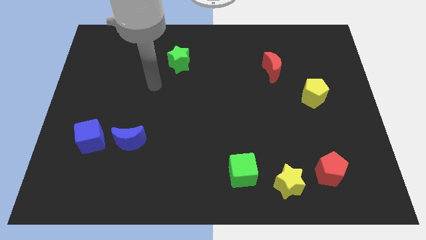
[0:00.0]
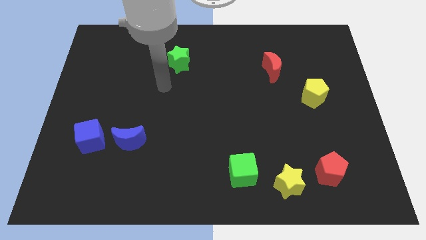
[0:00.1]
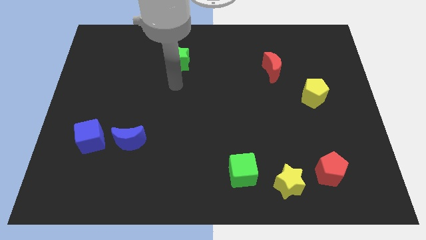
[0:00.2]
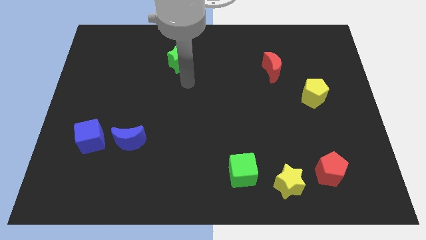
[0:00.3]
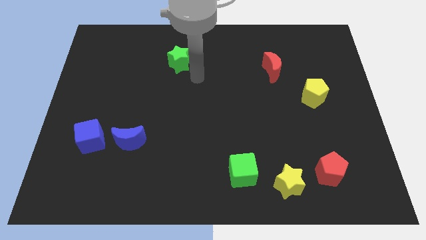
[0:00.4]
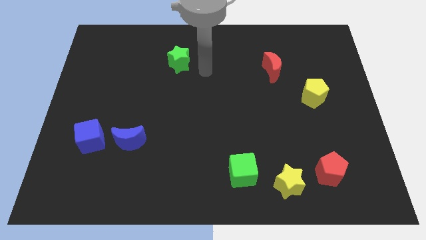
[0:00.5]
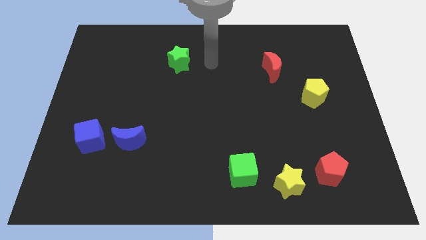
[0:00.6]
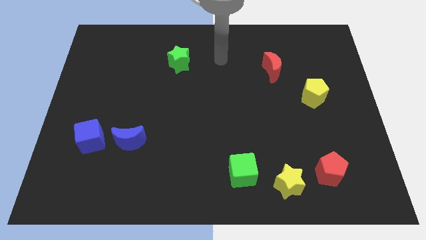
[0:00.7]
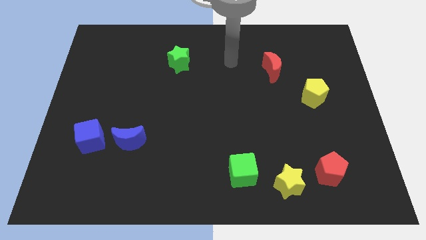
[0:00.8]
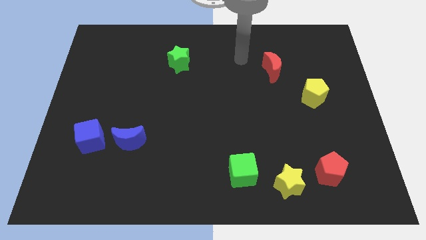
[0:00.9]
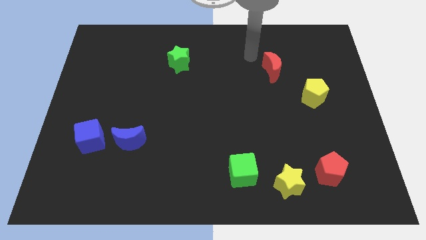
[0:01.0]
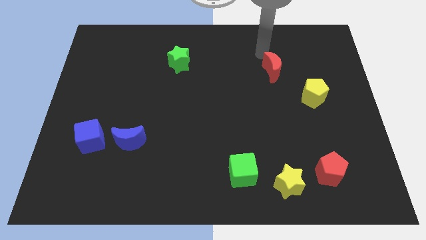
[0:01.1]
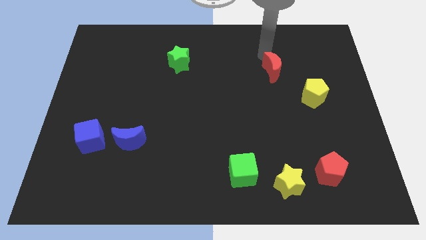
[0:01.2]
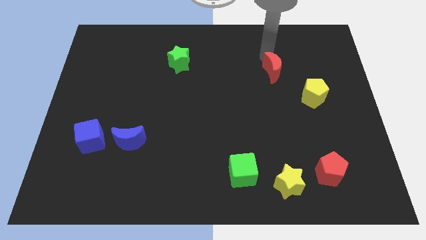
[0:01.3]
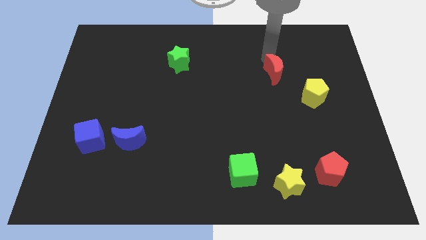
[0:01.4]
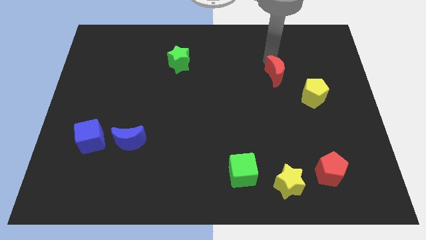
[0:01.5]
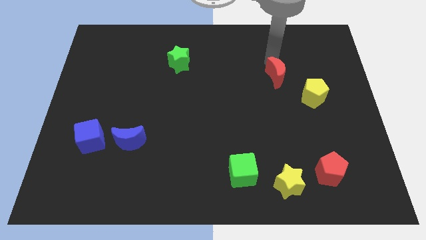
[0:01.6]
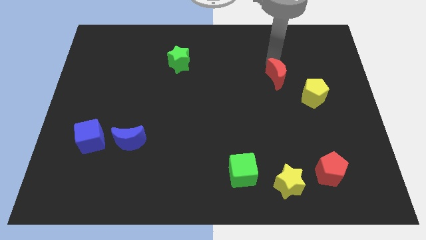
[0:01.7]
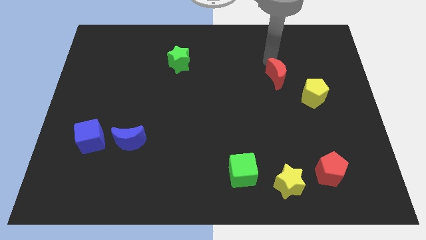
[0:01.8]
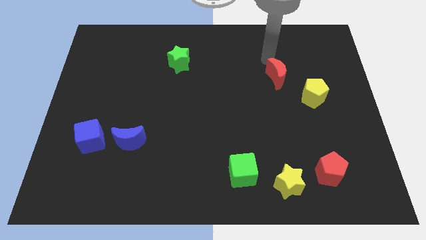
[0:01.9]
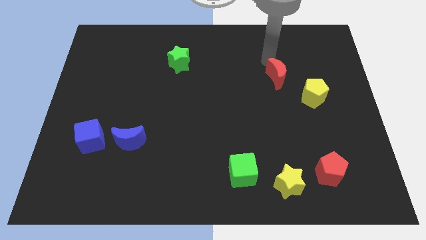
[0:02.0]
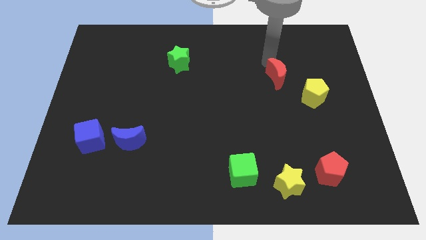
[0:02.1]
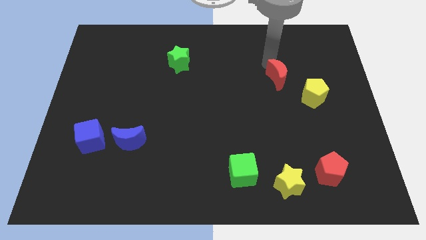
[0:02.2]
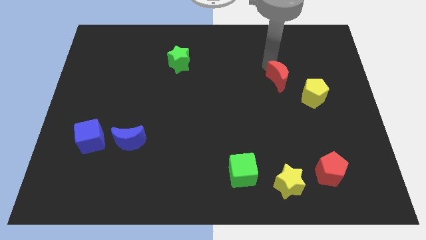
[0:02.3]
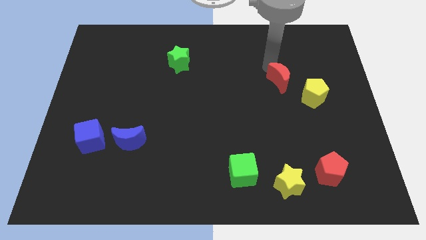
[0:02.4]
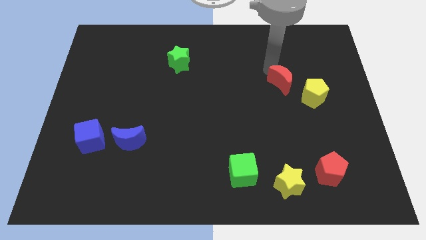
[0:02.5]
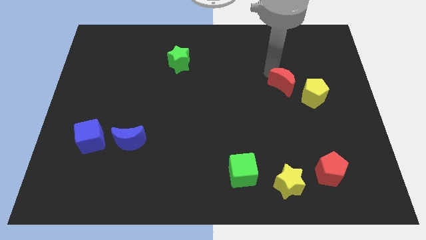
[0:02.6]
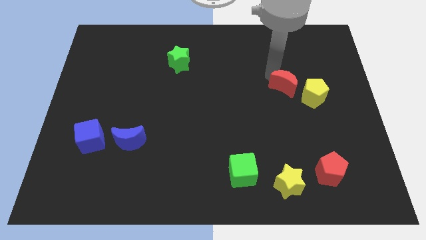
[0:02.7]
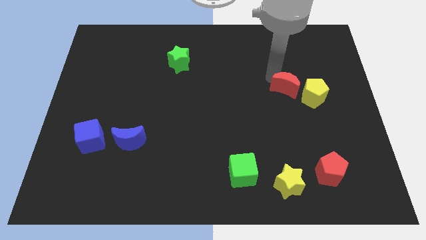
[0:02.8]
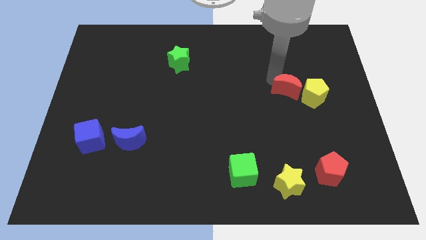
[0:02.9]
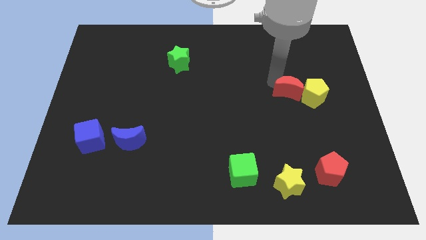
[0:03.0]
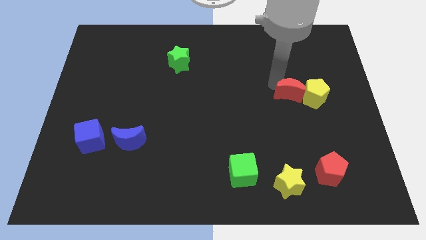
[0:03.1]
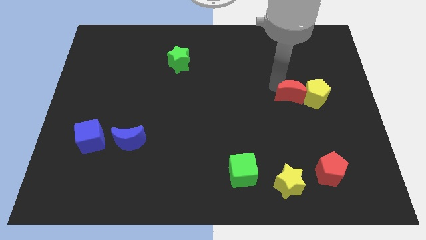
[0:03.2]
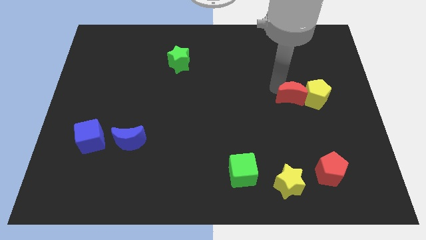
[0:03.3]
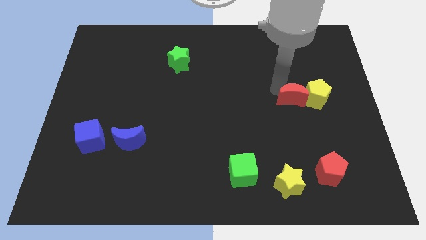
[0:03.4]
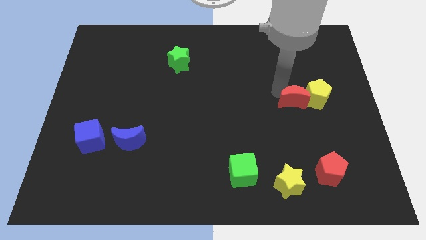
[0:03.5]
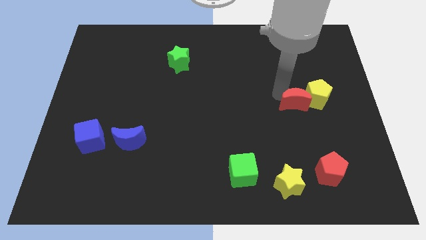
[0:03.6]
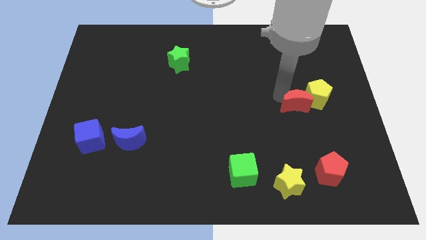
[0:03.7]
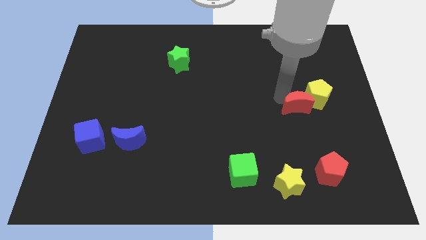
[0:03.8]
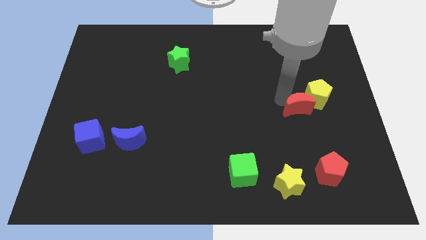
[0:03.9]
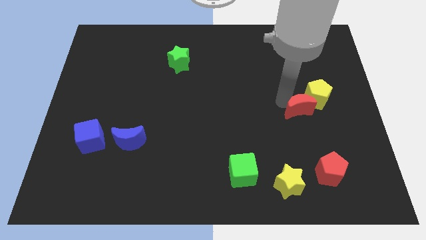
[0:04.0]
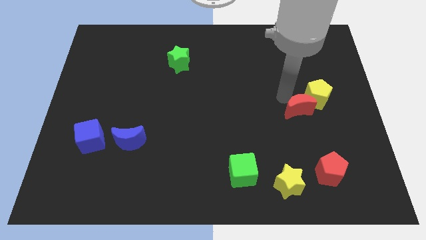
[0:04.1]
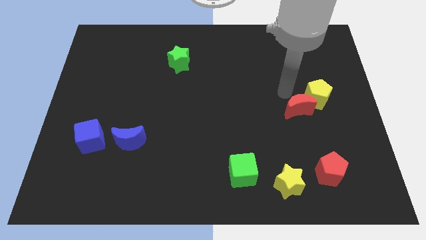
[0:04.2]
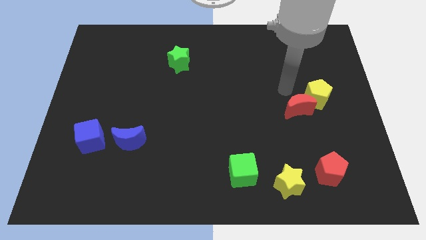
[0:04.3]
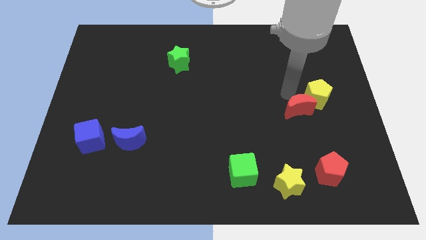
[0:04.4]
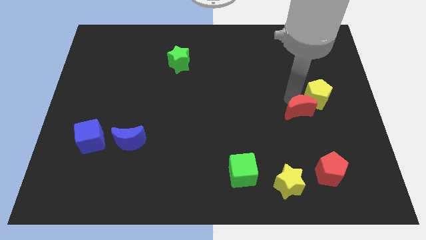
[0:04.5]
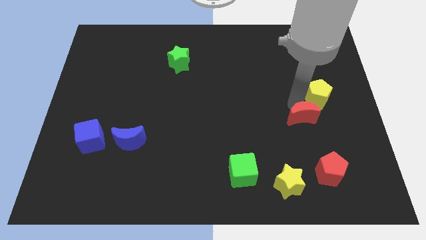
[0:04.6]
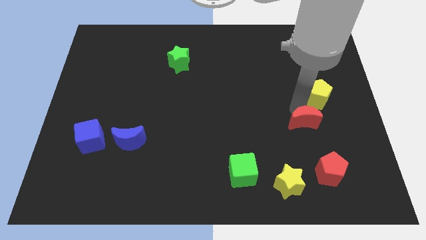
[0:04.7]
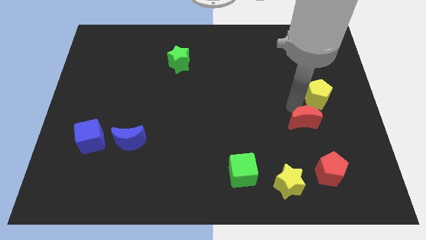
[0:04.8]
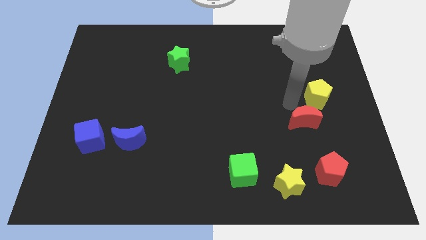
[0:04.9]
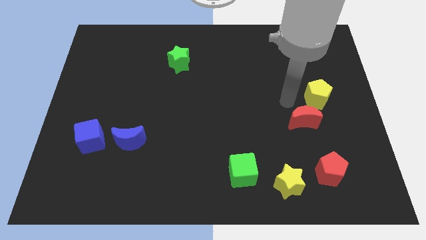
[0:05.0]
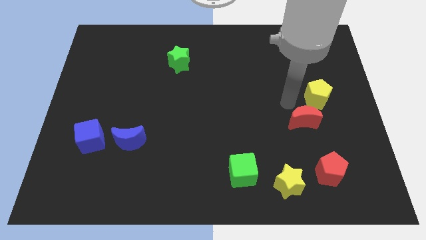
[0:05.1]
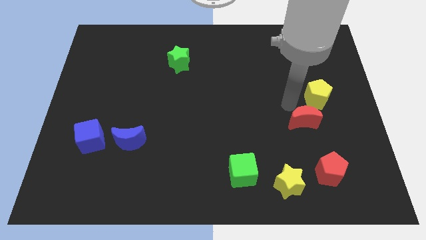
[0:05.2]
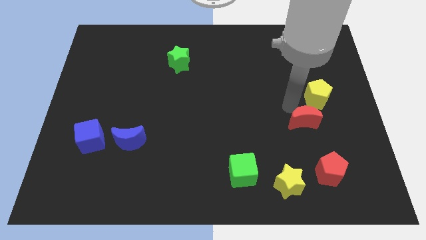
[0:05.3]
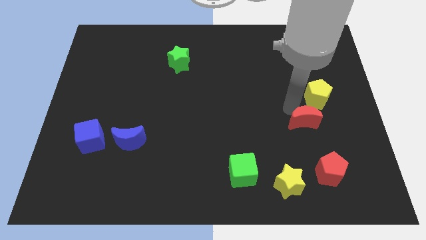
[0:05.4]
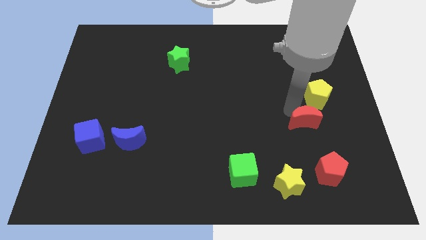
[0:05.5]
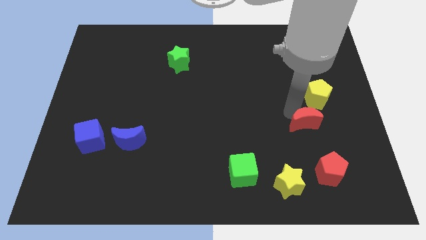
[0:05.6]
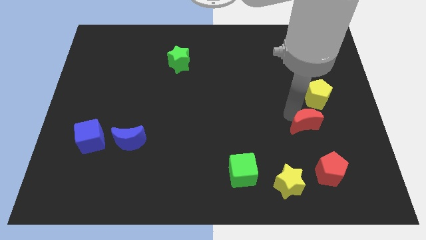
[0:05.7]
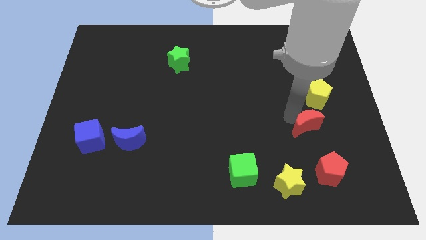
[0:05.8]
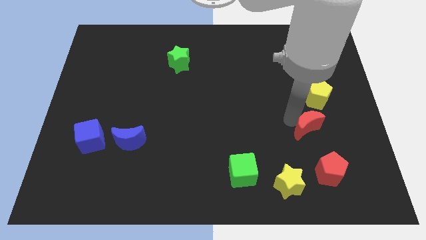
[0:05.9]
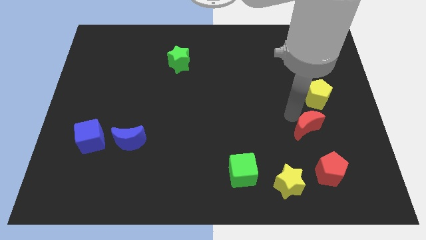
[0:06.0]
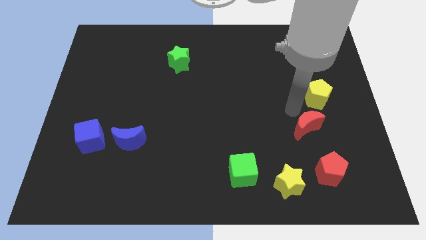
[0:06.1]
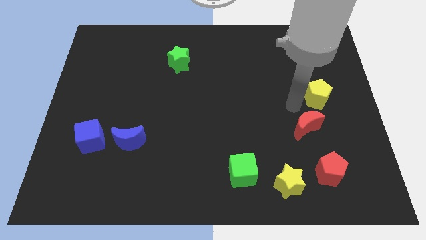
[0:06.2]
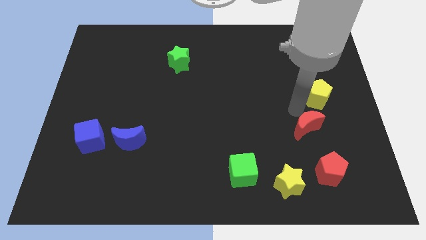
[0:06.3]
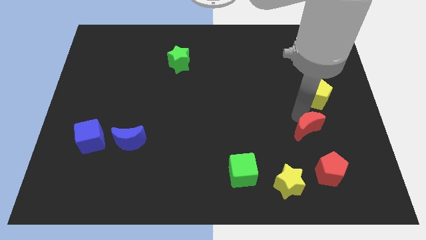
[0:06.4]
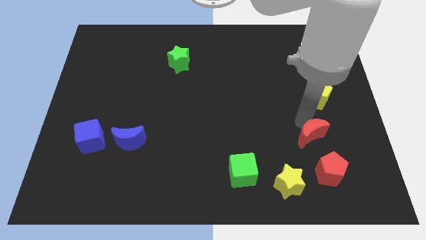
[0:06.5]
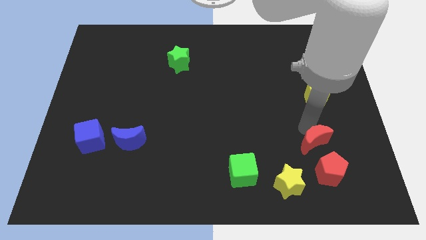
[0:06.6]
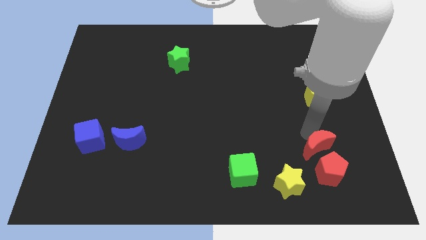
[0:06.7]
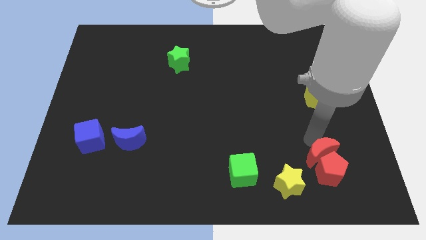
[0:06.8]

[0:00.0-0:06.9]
slide the red moon close to the red pentagon

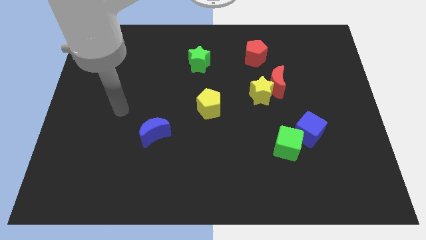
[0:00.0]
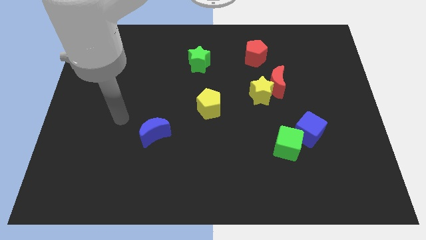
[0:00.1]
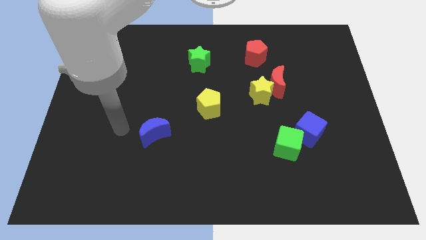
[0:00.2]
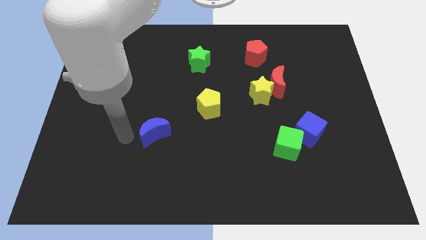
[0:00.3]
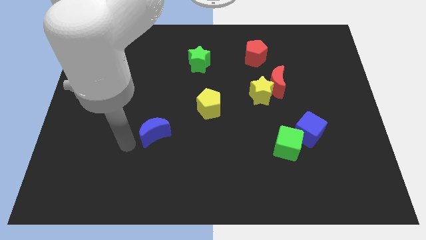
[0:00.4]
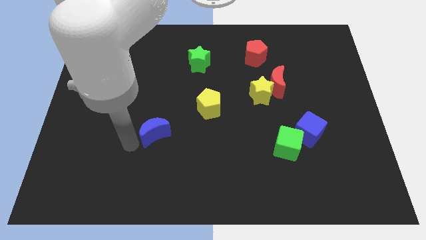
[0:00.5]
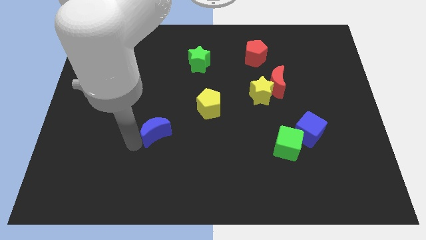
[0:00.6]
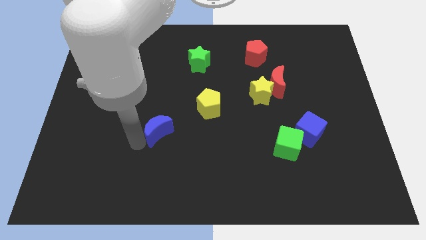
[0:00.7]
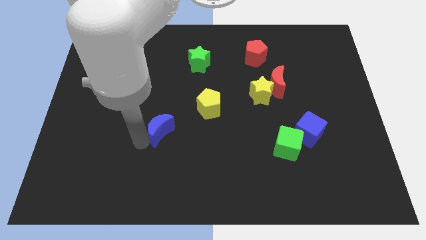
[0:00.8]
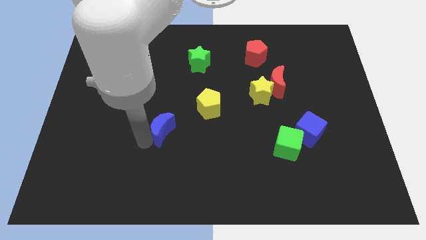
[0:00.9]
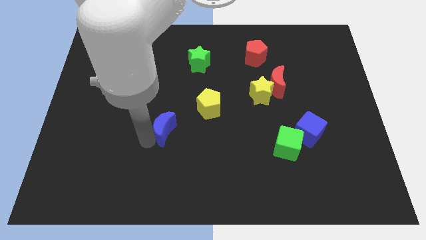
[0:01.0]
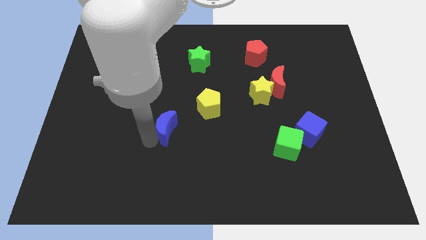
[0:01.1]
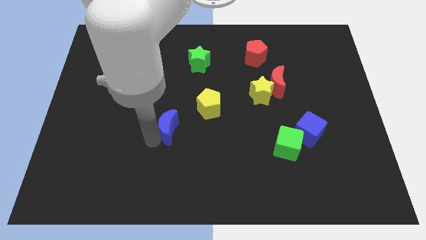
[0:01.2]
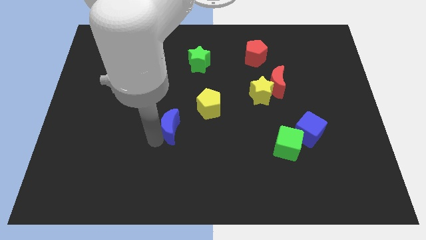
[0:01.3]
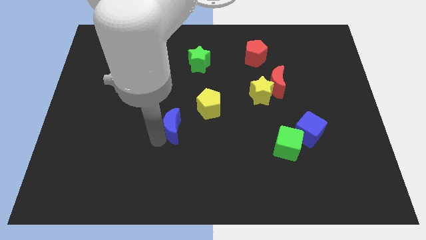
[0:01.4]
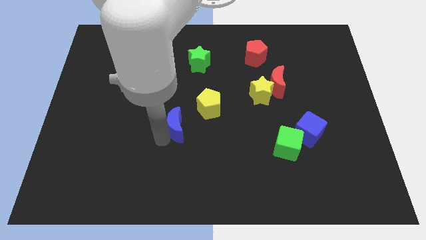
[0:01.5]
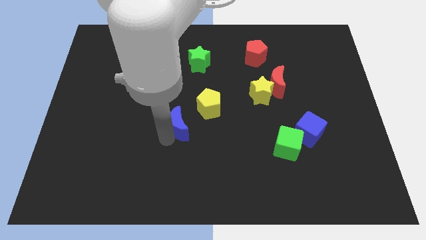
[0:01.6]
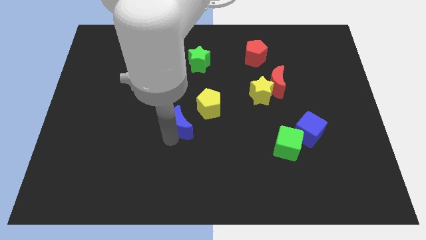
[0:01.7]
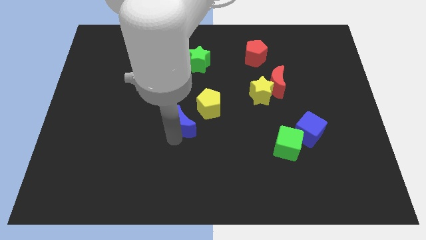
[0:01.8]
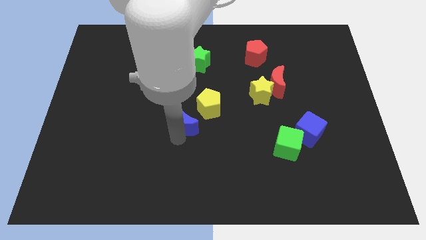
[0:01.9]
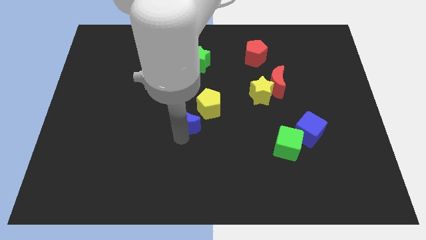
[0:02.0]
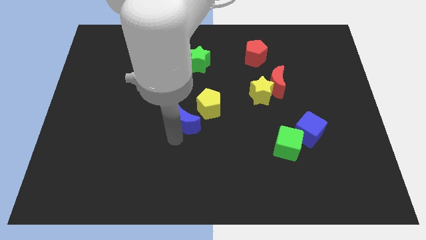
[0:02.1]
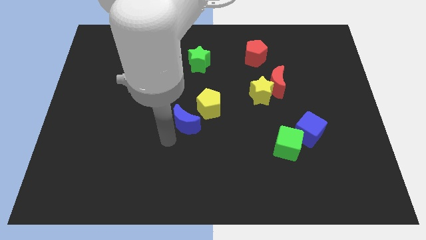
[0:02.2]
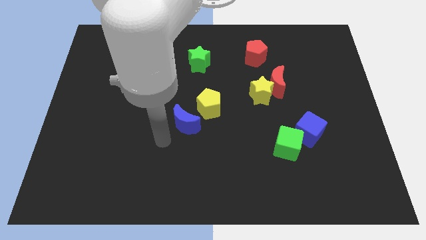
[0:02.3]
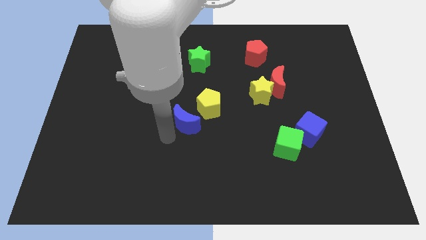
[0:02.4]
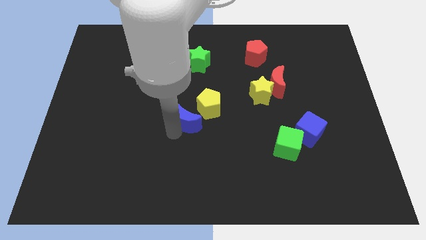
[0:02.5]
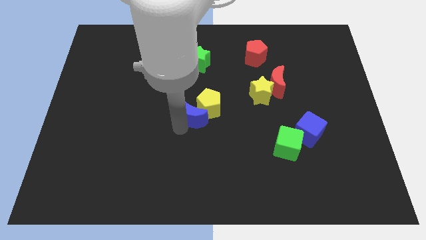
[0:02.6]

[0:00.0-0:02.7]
move the blue moon towards the yellow pentagon
